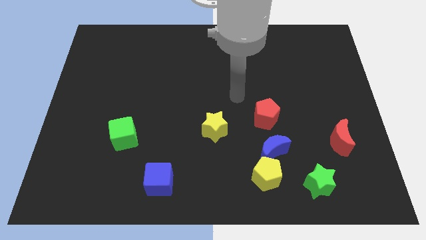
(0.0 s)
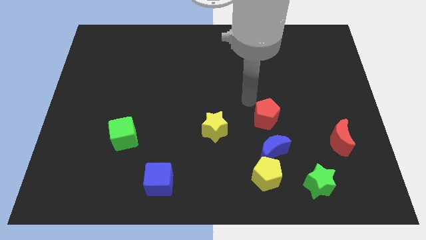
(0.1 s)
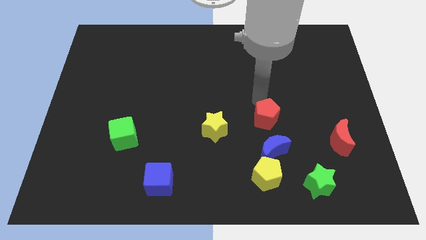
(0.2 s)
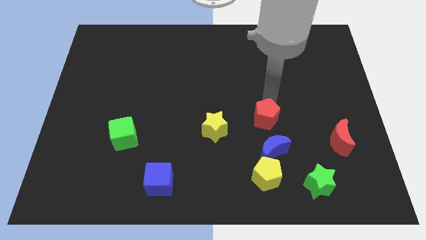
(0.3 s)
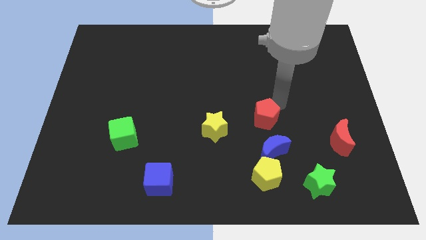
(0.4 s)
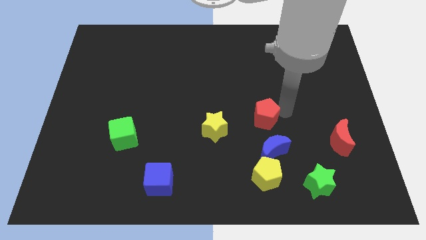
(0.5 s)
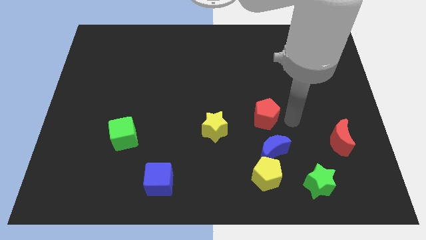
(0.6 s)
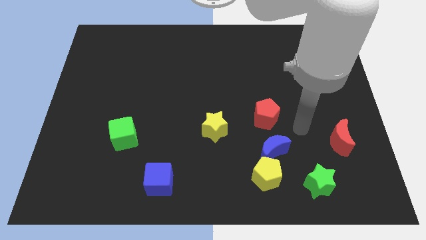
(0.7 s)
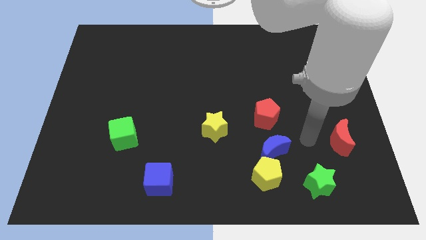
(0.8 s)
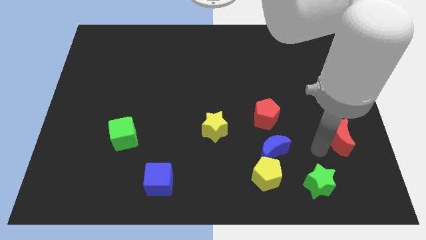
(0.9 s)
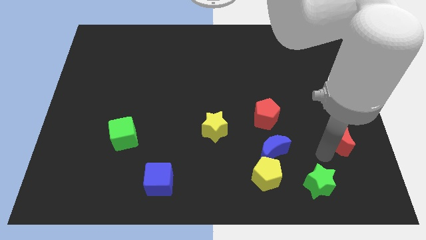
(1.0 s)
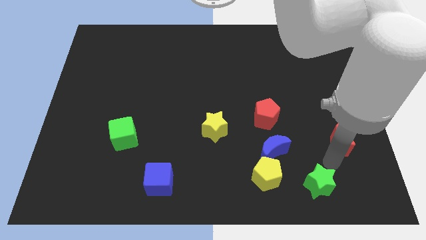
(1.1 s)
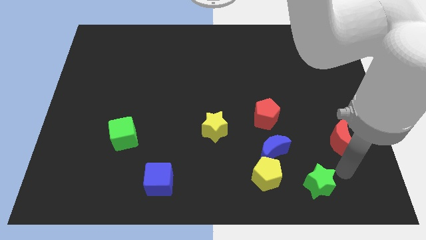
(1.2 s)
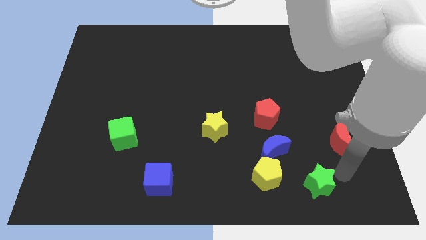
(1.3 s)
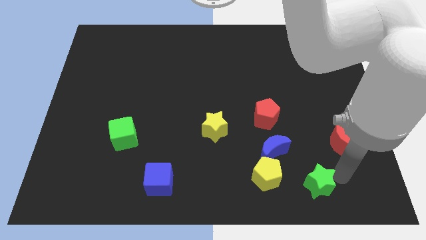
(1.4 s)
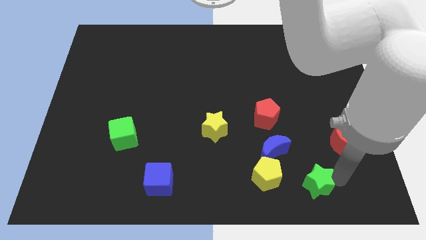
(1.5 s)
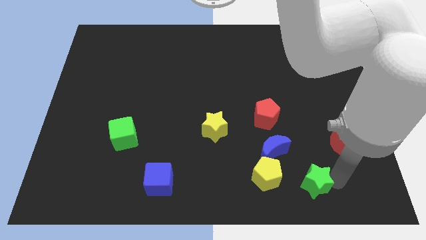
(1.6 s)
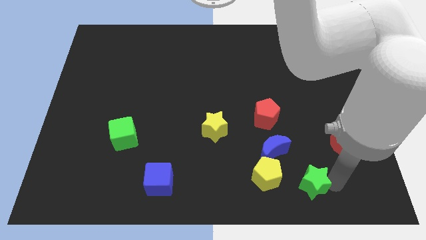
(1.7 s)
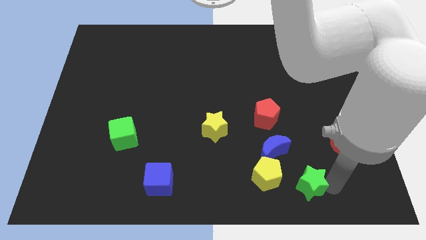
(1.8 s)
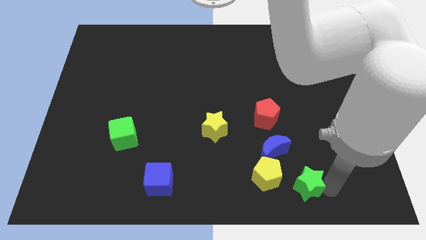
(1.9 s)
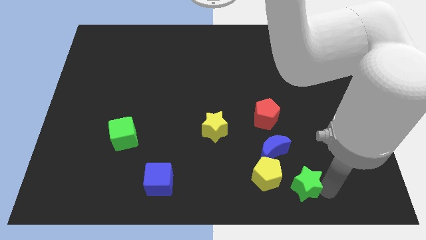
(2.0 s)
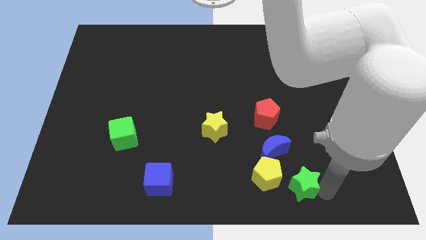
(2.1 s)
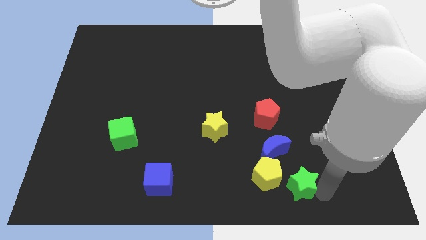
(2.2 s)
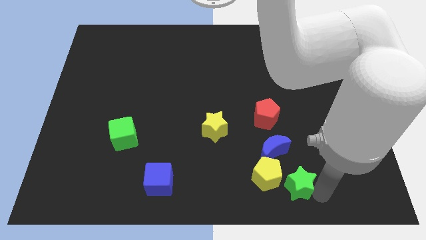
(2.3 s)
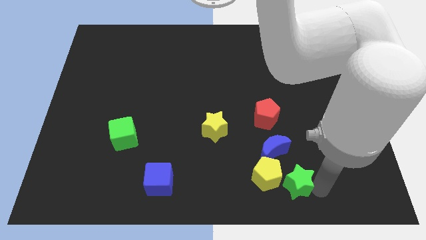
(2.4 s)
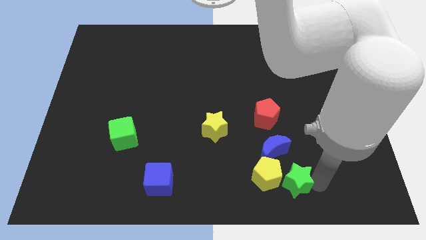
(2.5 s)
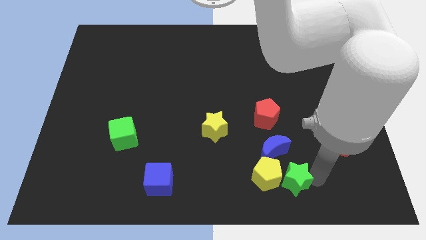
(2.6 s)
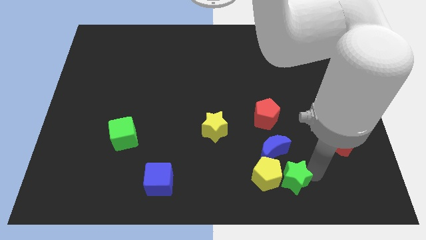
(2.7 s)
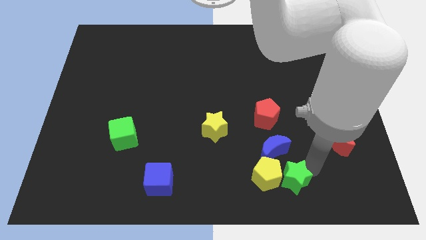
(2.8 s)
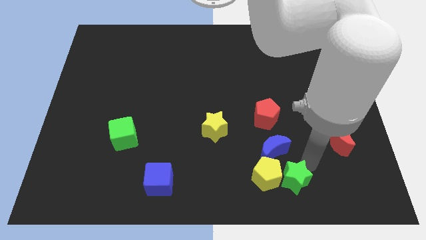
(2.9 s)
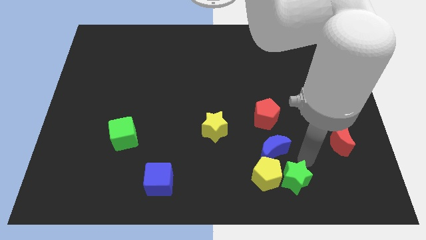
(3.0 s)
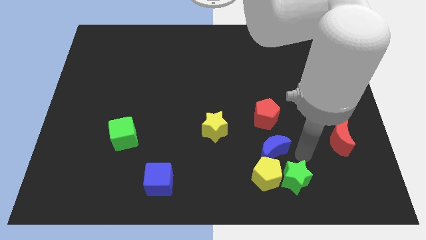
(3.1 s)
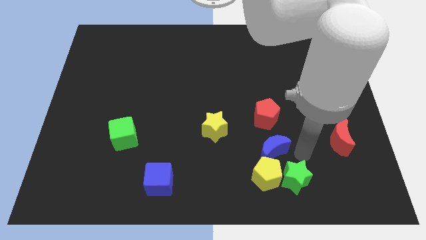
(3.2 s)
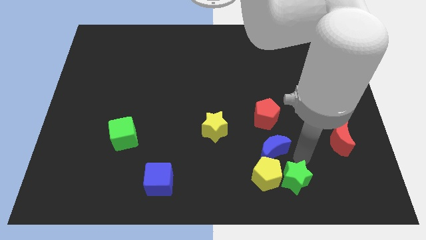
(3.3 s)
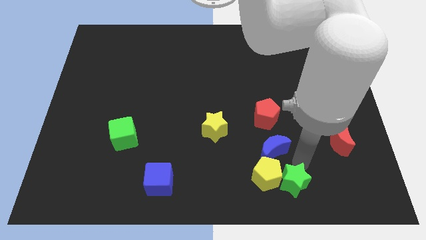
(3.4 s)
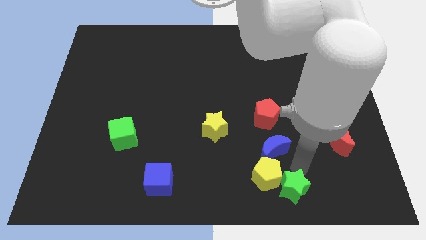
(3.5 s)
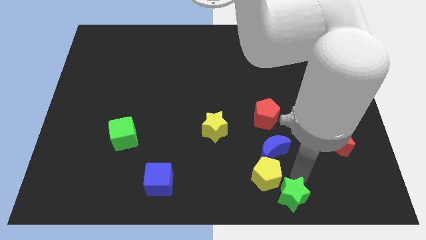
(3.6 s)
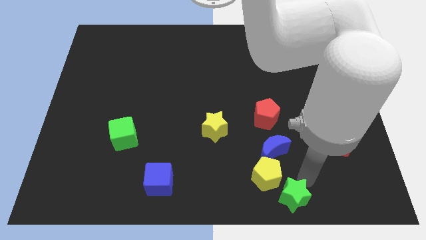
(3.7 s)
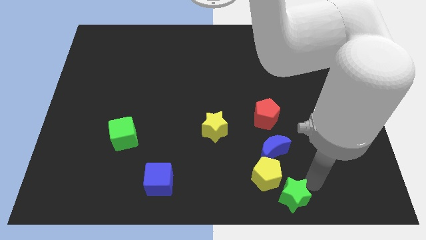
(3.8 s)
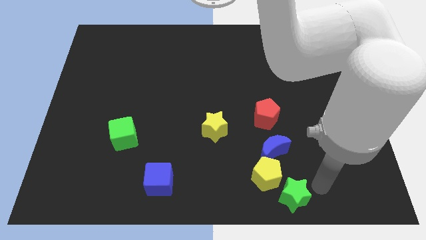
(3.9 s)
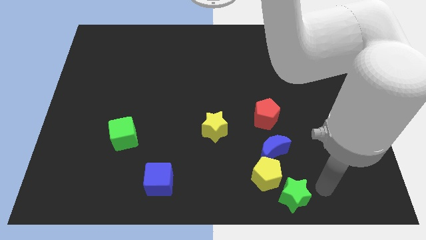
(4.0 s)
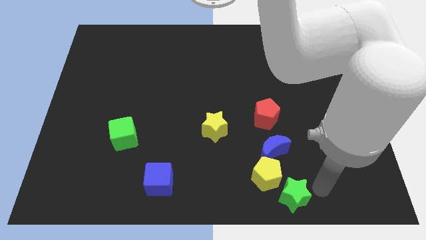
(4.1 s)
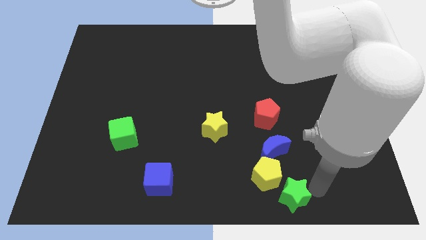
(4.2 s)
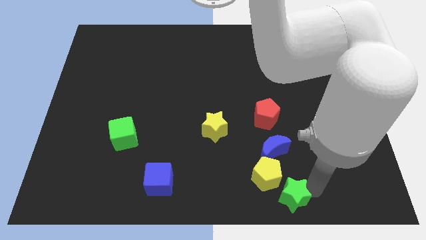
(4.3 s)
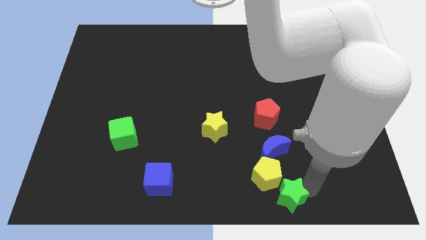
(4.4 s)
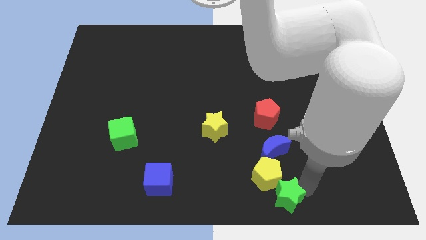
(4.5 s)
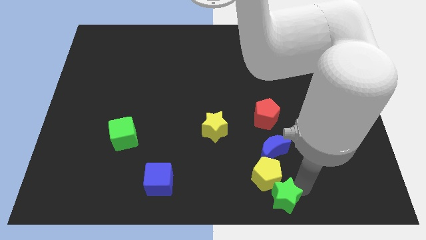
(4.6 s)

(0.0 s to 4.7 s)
slightly move the green star to the left

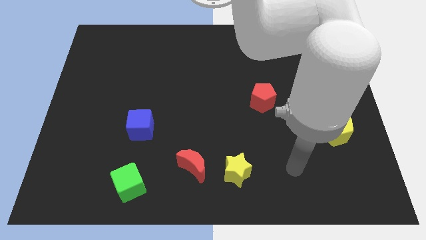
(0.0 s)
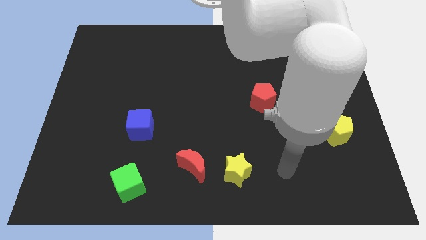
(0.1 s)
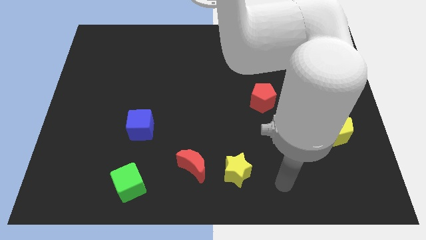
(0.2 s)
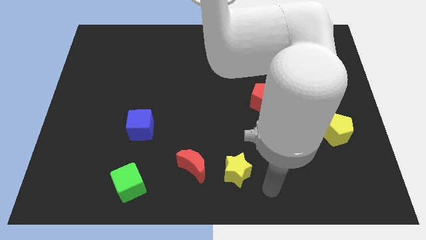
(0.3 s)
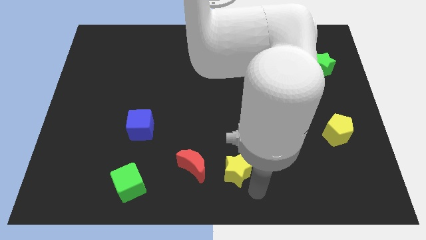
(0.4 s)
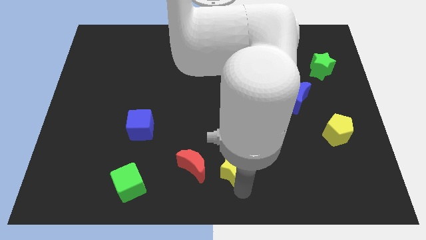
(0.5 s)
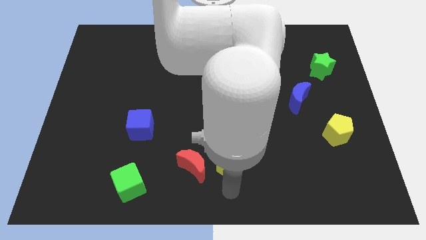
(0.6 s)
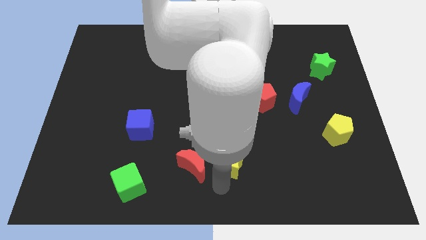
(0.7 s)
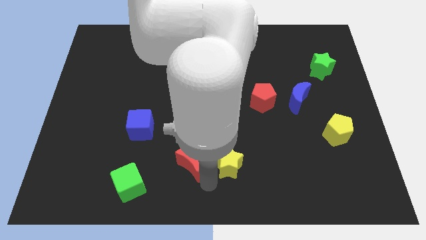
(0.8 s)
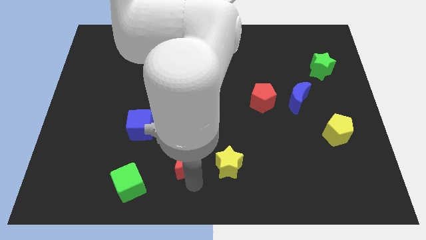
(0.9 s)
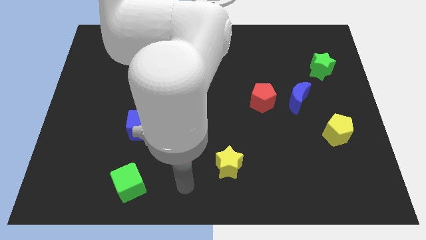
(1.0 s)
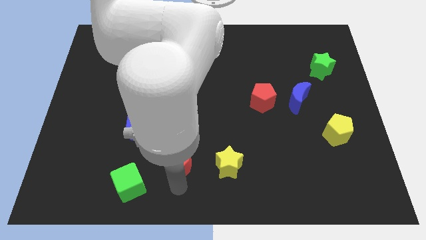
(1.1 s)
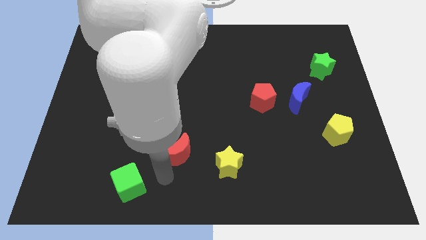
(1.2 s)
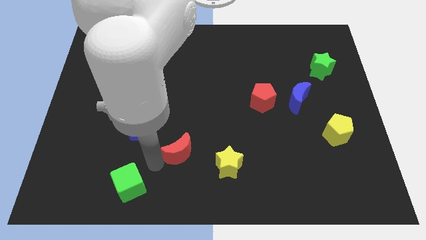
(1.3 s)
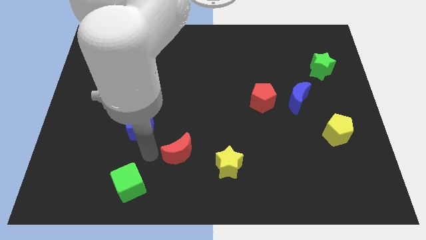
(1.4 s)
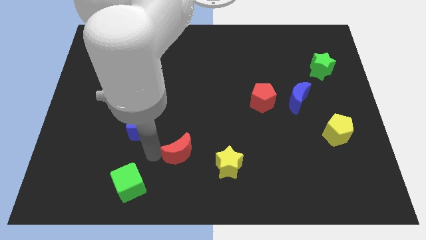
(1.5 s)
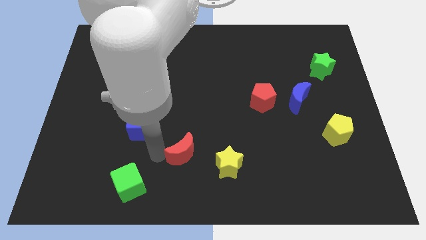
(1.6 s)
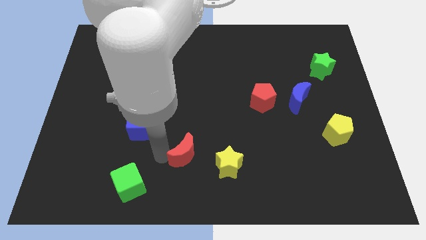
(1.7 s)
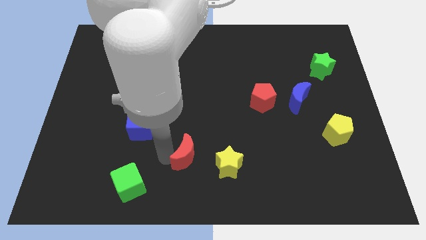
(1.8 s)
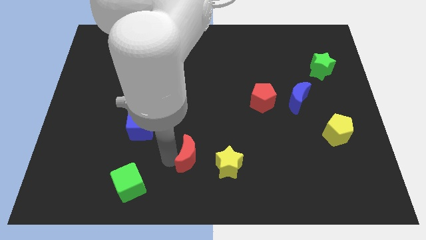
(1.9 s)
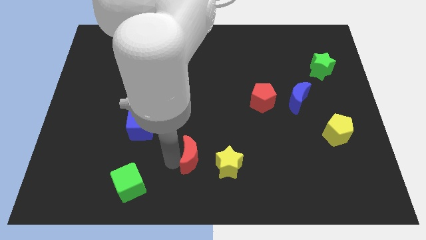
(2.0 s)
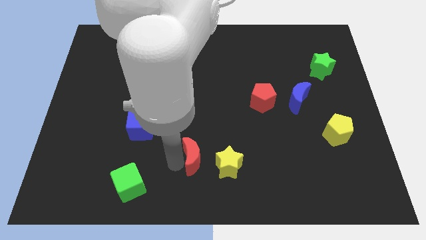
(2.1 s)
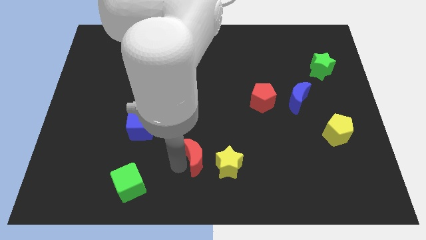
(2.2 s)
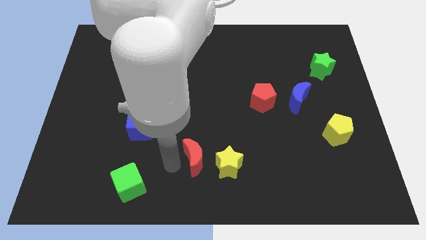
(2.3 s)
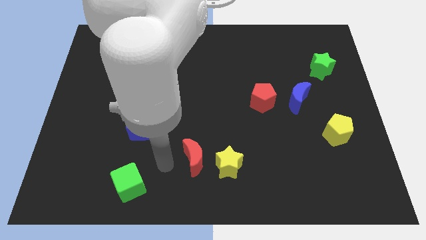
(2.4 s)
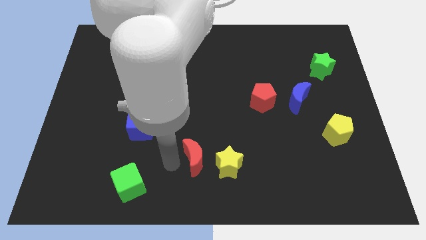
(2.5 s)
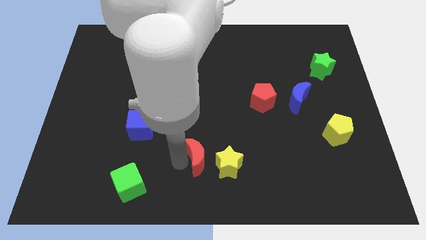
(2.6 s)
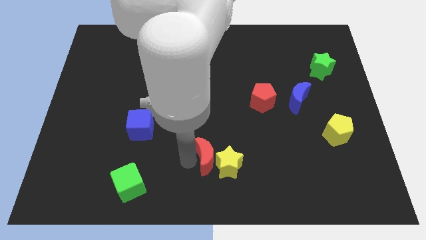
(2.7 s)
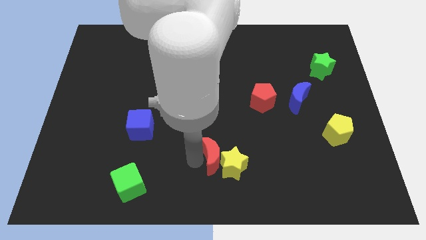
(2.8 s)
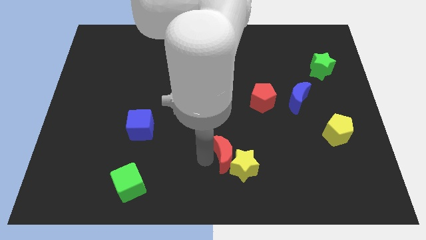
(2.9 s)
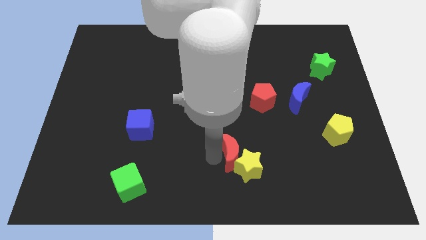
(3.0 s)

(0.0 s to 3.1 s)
slide the red moon a bit right
